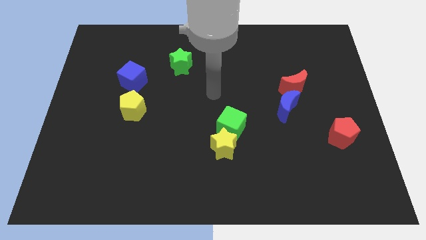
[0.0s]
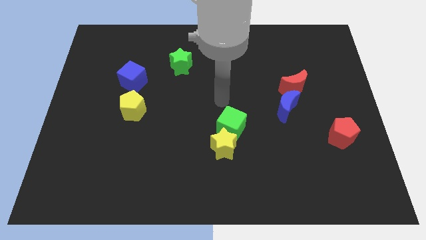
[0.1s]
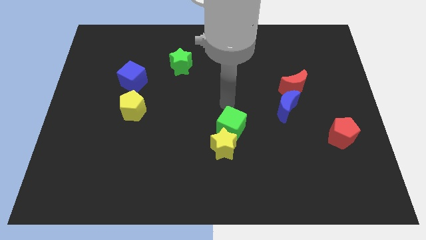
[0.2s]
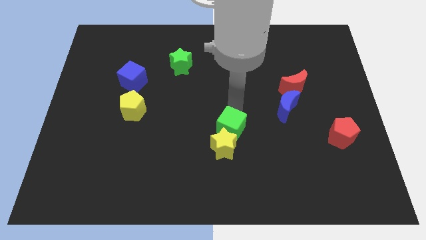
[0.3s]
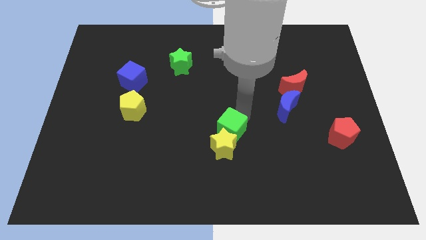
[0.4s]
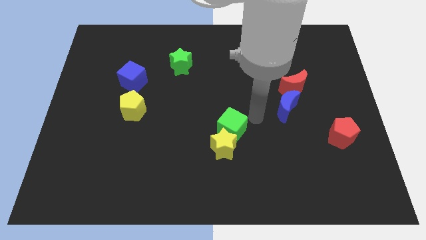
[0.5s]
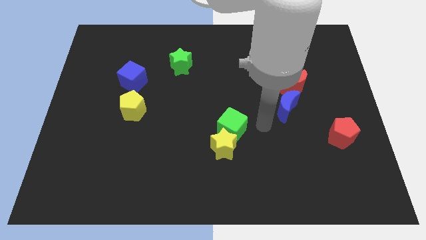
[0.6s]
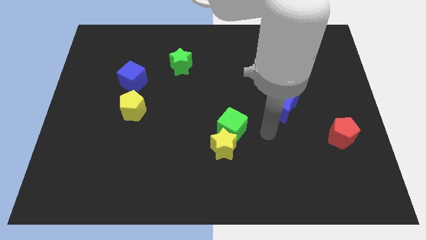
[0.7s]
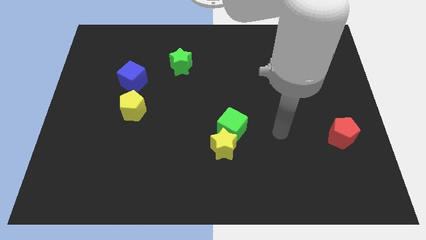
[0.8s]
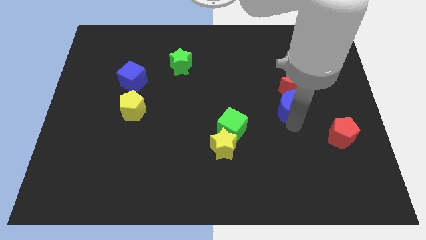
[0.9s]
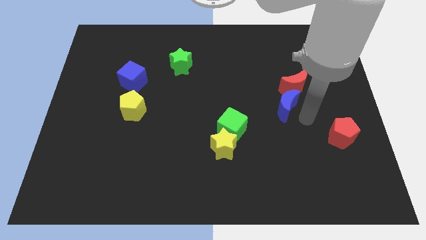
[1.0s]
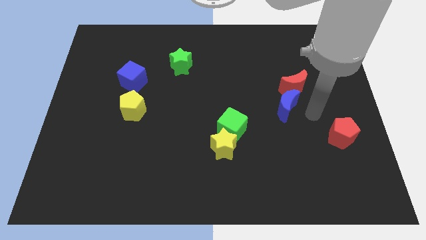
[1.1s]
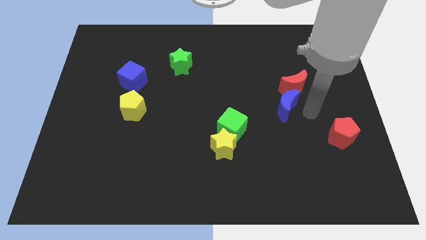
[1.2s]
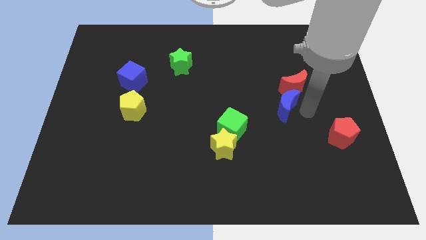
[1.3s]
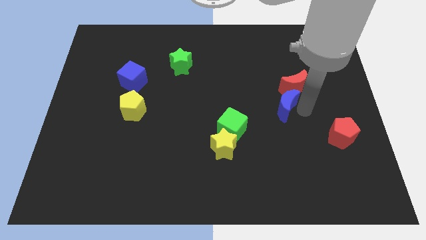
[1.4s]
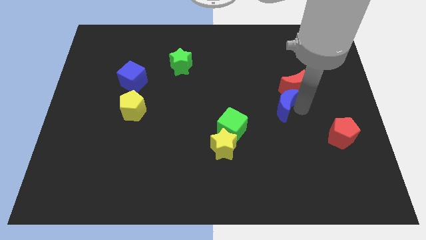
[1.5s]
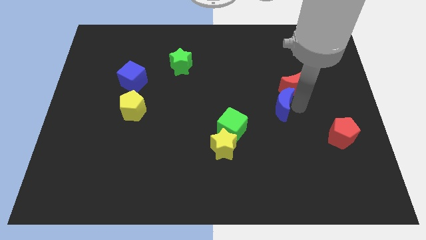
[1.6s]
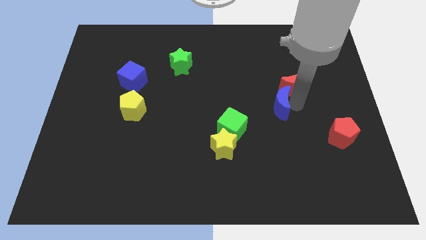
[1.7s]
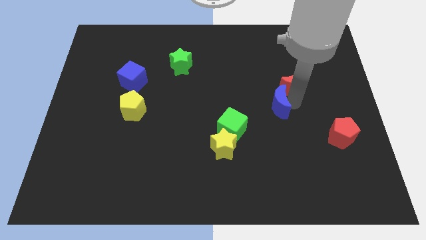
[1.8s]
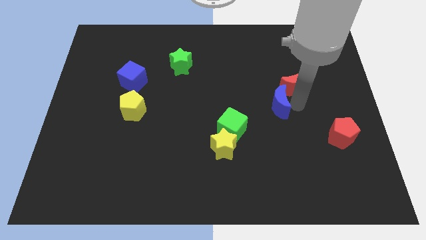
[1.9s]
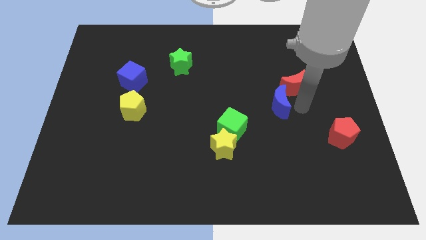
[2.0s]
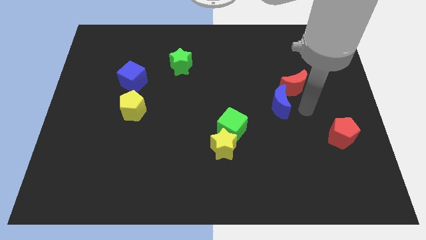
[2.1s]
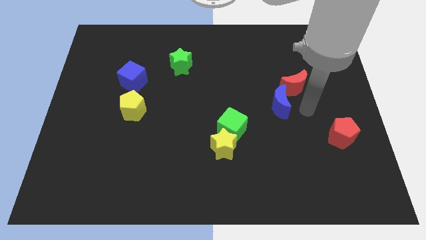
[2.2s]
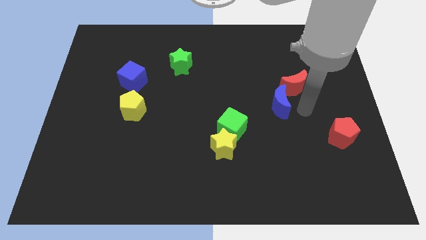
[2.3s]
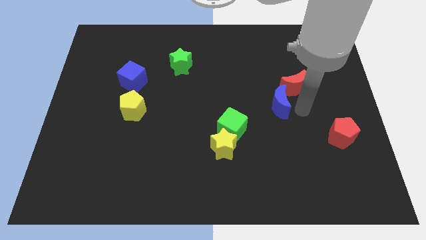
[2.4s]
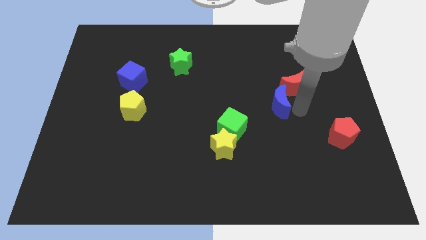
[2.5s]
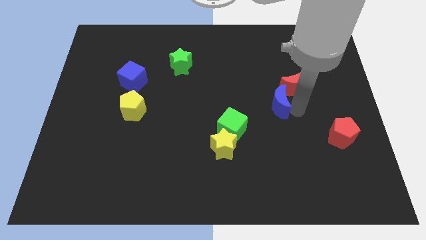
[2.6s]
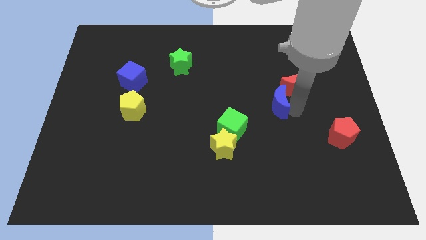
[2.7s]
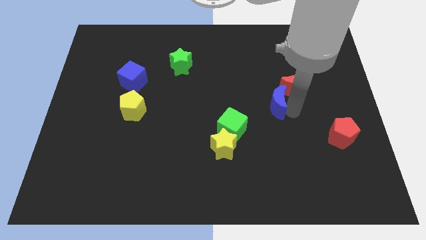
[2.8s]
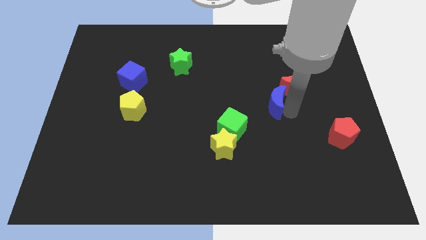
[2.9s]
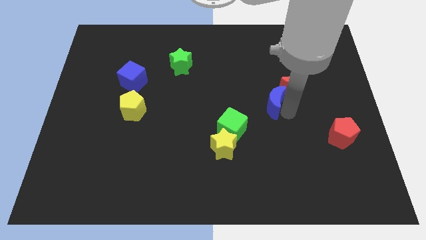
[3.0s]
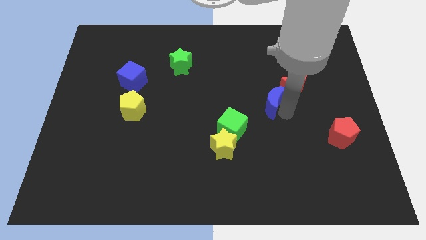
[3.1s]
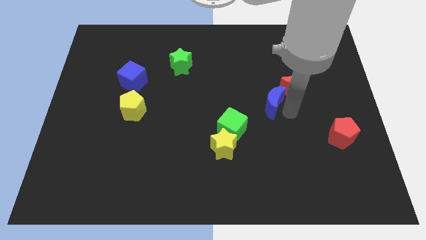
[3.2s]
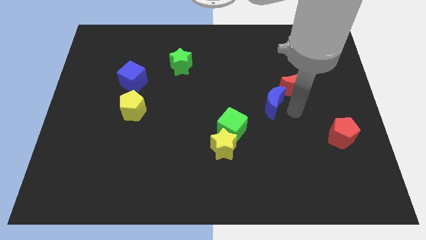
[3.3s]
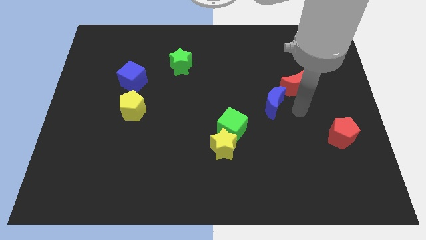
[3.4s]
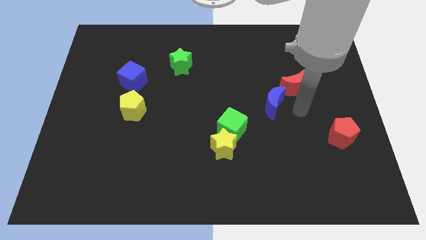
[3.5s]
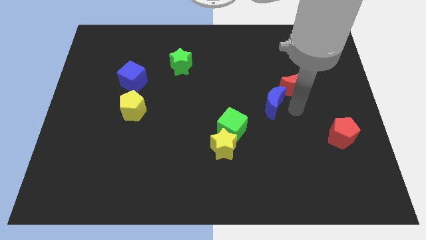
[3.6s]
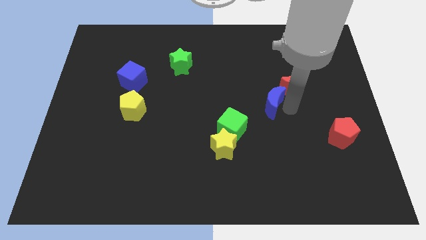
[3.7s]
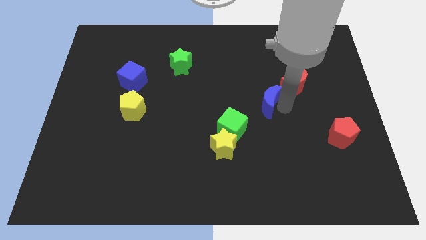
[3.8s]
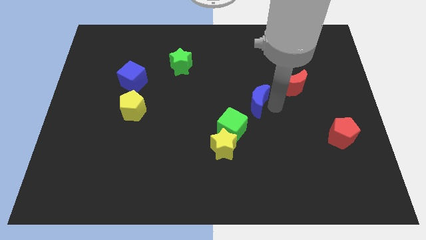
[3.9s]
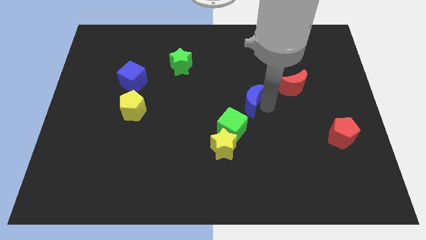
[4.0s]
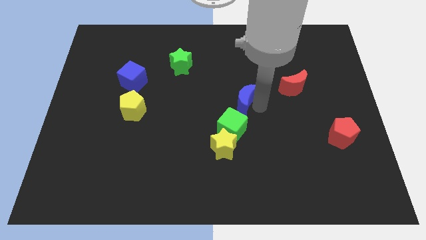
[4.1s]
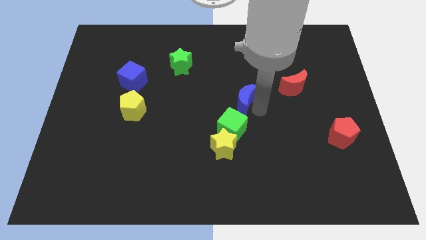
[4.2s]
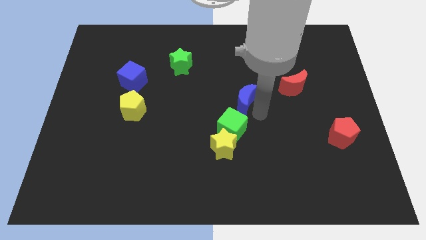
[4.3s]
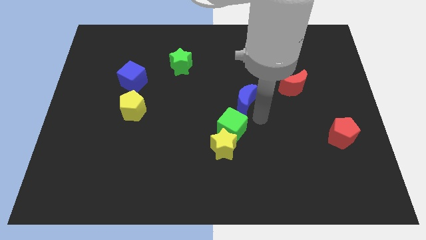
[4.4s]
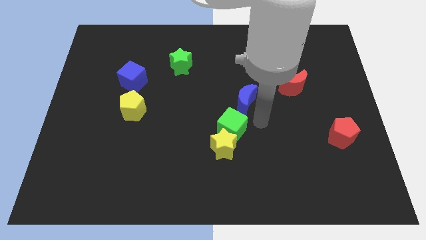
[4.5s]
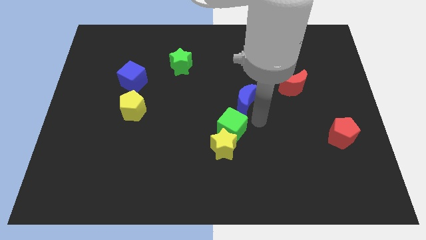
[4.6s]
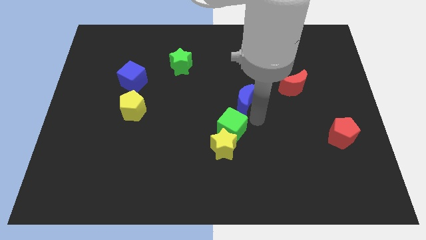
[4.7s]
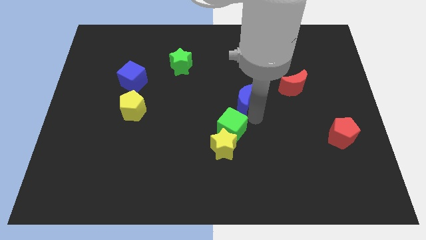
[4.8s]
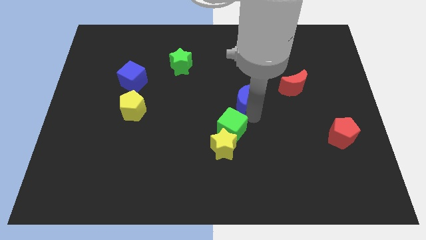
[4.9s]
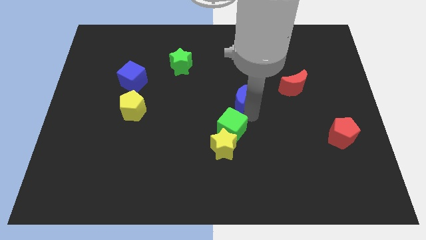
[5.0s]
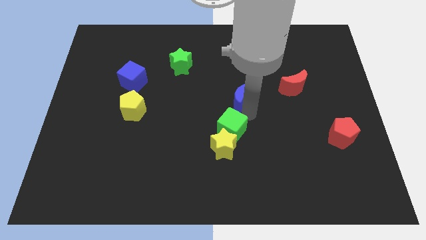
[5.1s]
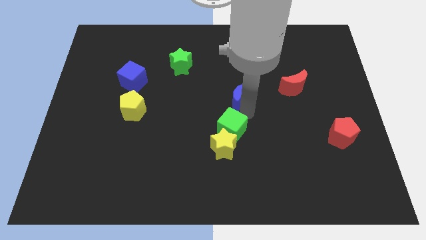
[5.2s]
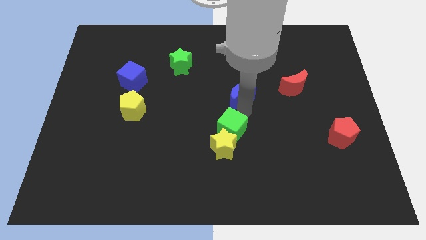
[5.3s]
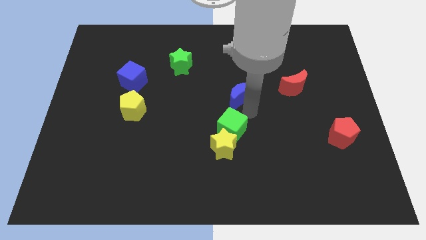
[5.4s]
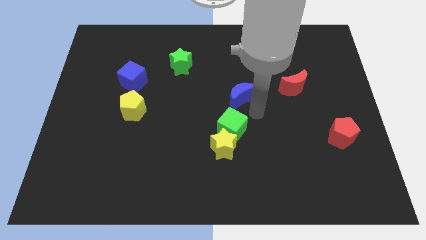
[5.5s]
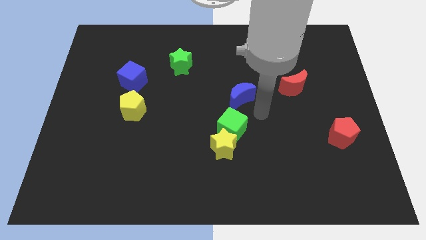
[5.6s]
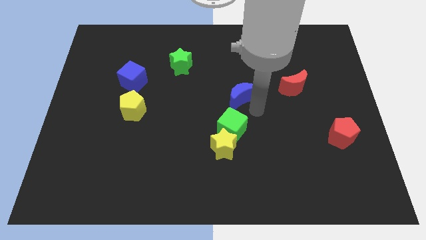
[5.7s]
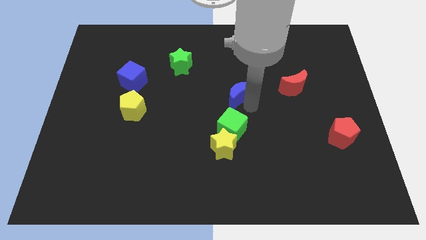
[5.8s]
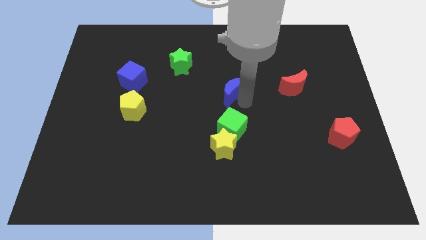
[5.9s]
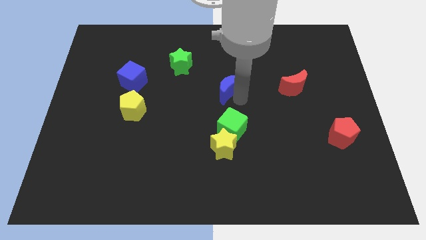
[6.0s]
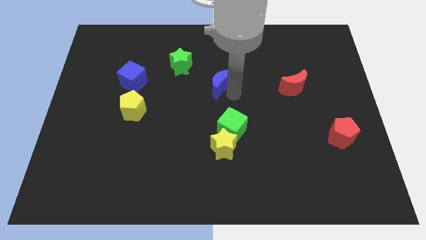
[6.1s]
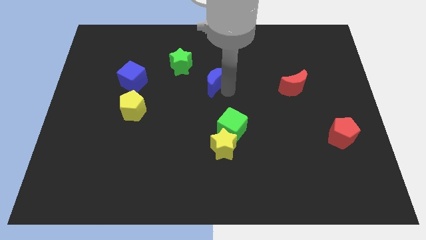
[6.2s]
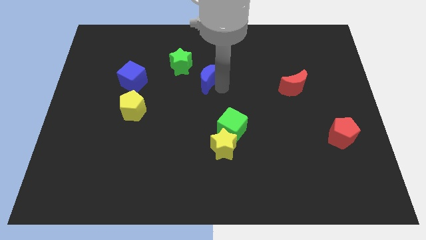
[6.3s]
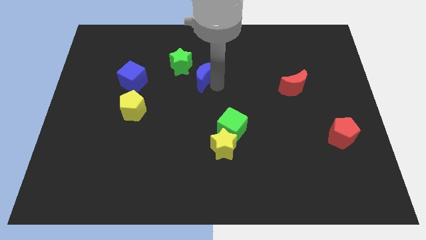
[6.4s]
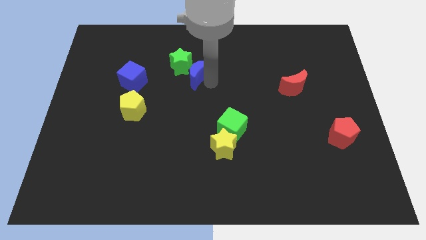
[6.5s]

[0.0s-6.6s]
put the blue moon to the green star

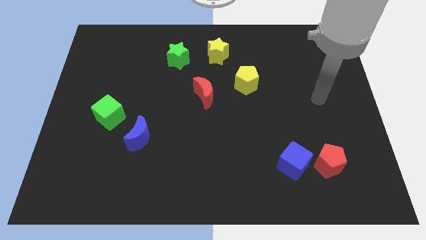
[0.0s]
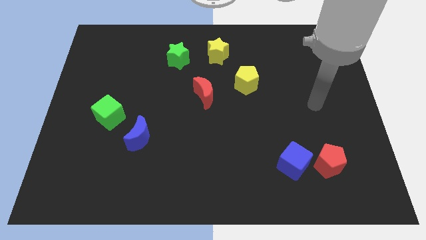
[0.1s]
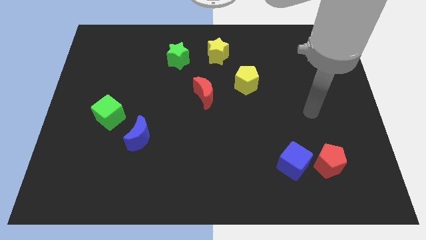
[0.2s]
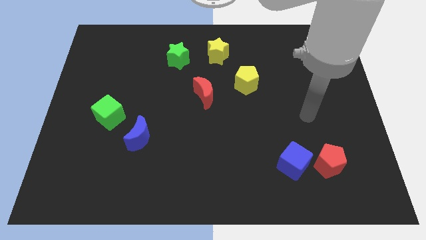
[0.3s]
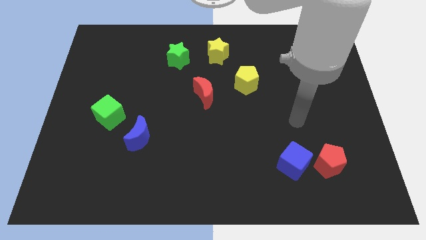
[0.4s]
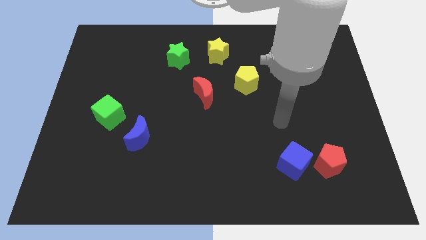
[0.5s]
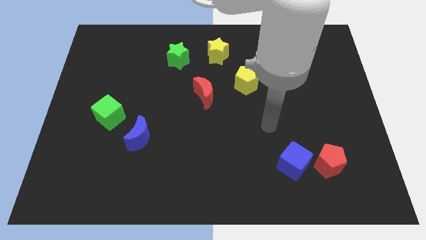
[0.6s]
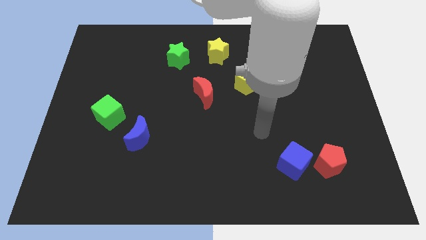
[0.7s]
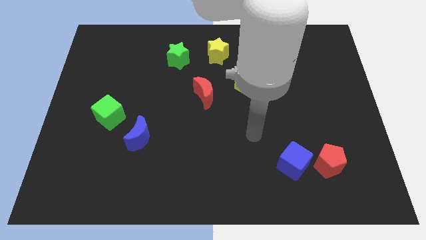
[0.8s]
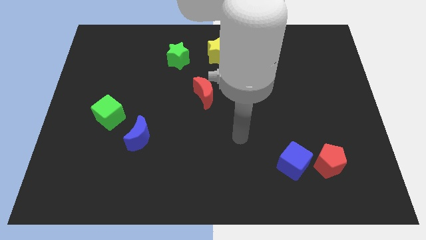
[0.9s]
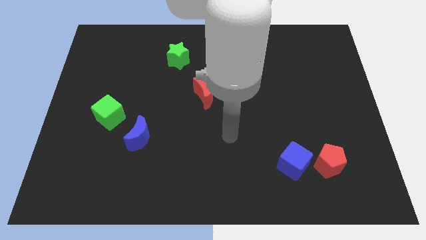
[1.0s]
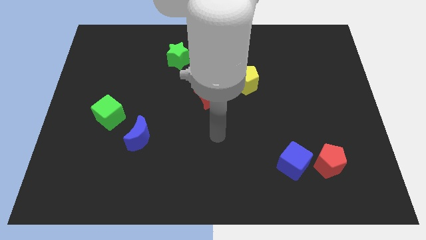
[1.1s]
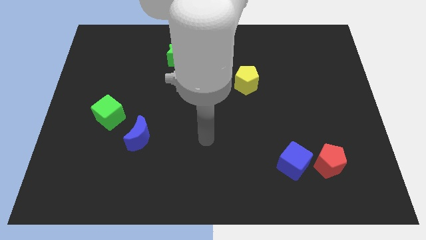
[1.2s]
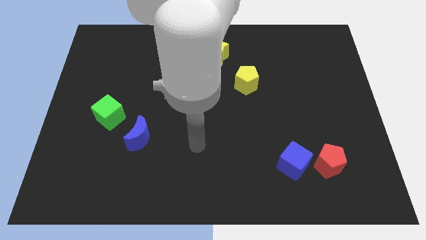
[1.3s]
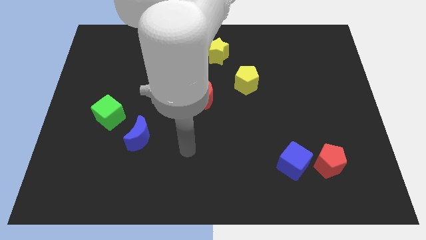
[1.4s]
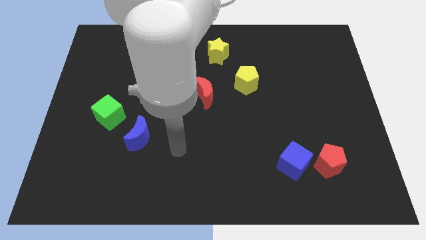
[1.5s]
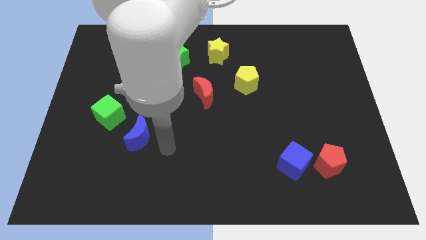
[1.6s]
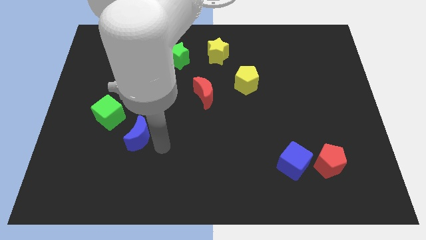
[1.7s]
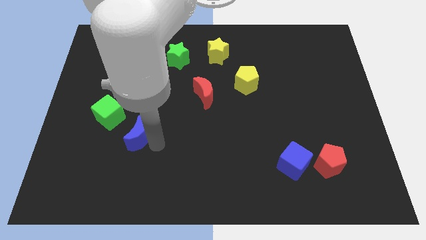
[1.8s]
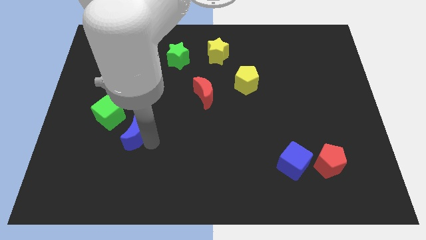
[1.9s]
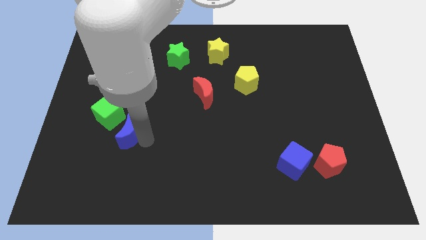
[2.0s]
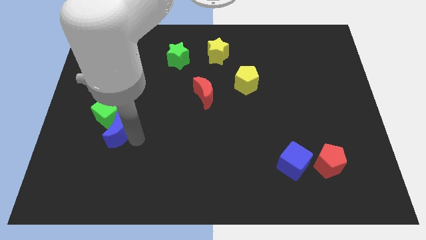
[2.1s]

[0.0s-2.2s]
slide the blue moon to the green cube
